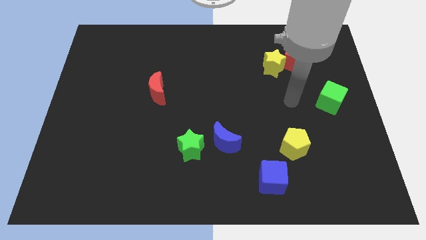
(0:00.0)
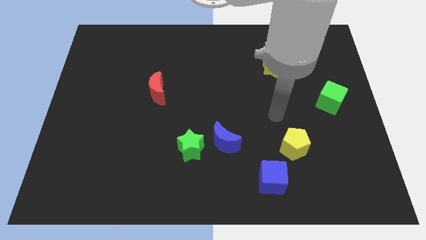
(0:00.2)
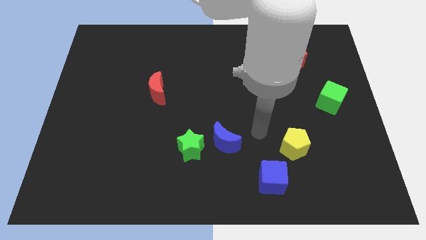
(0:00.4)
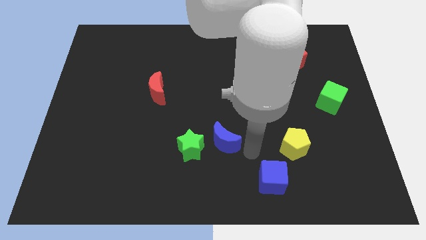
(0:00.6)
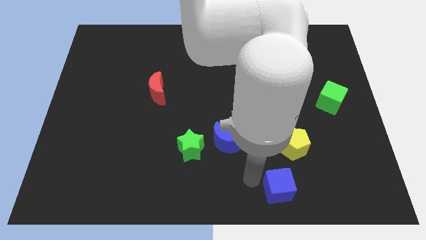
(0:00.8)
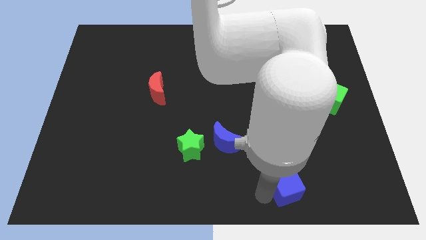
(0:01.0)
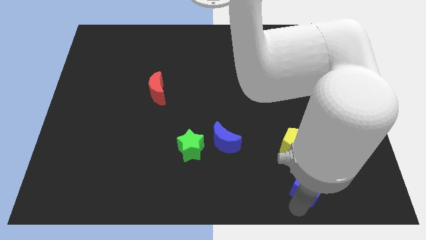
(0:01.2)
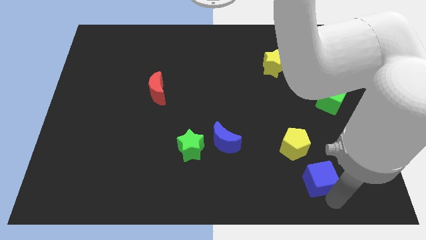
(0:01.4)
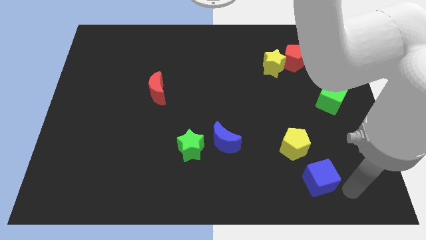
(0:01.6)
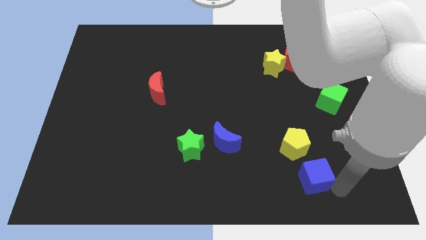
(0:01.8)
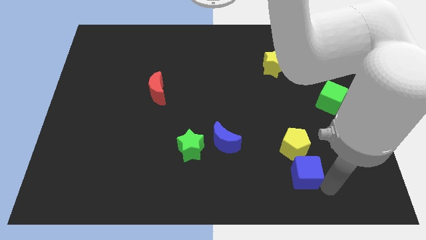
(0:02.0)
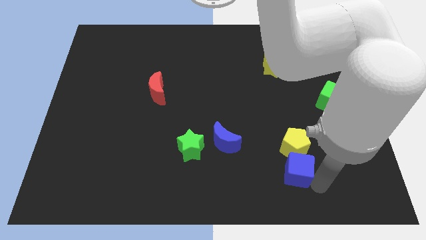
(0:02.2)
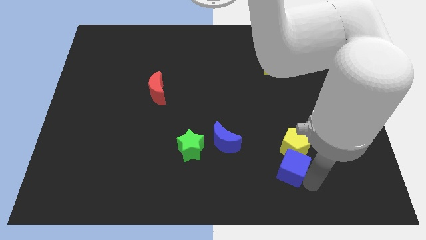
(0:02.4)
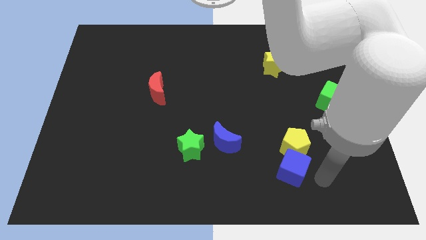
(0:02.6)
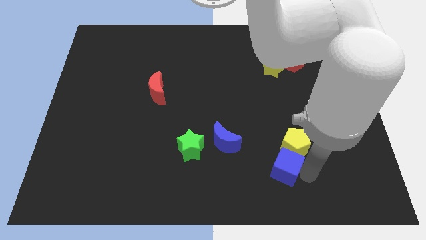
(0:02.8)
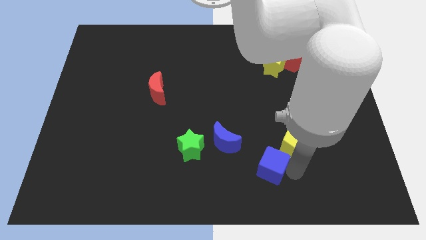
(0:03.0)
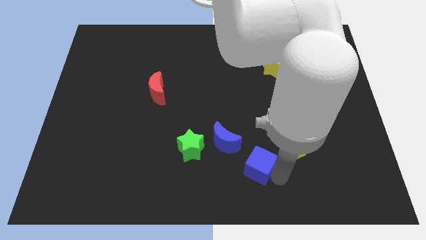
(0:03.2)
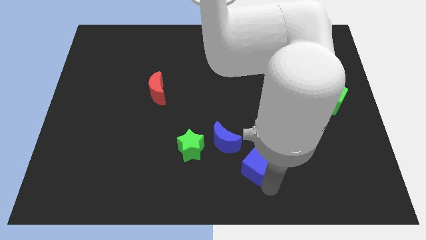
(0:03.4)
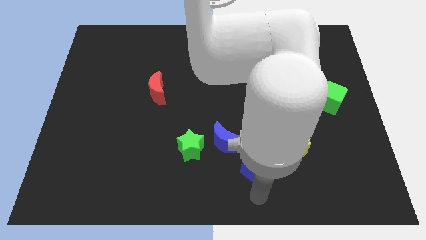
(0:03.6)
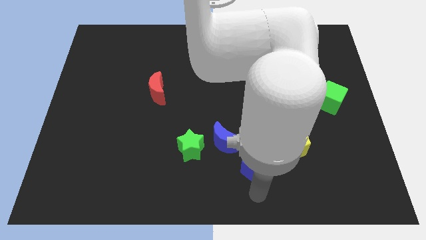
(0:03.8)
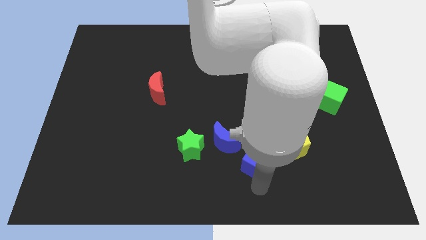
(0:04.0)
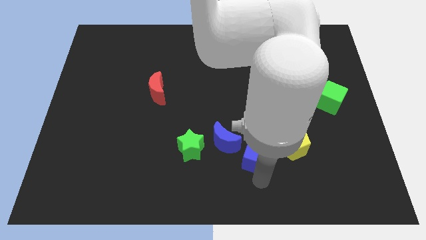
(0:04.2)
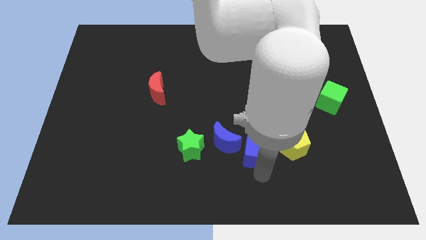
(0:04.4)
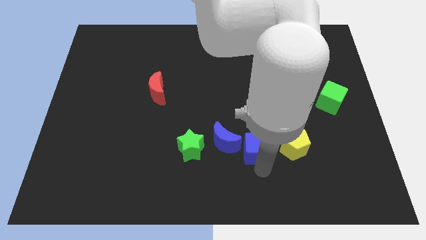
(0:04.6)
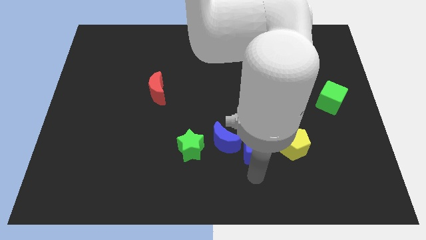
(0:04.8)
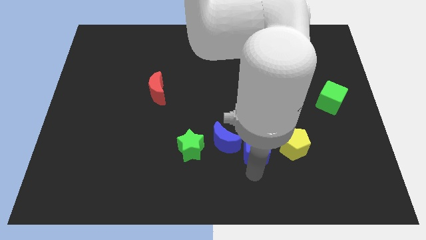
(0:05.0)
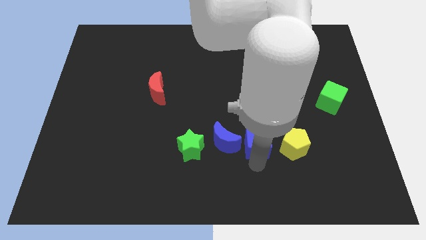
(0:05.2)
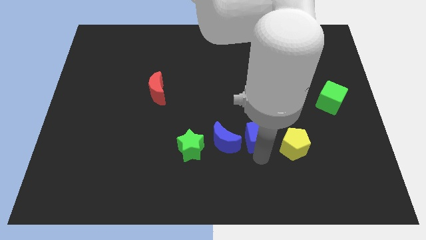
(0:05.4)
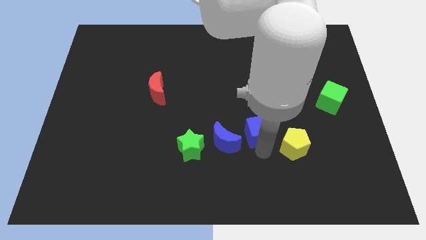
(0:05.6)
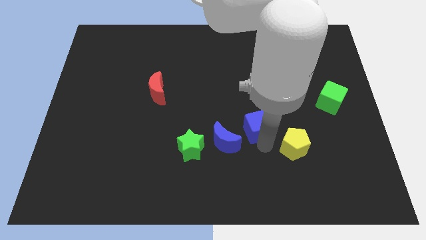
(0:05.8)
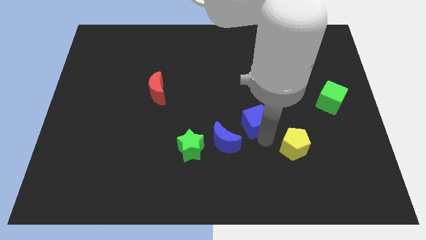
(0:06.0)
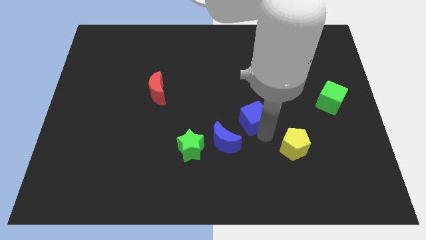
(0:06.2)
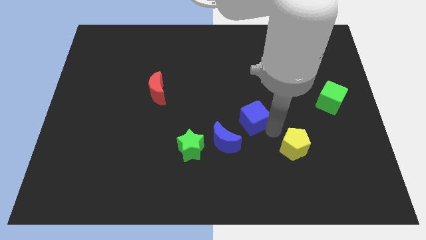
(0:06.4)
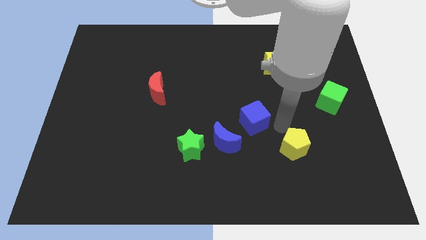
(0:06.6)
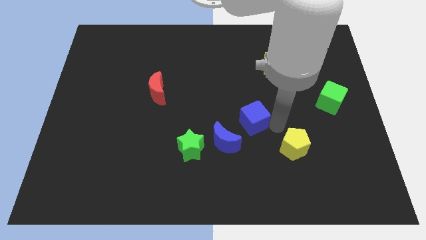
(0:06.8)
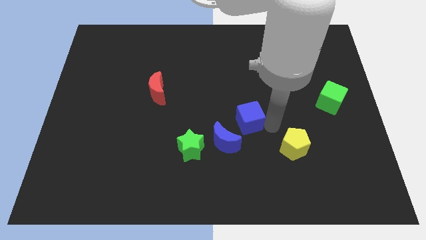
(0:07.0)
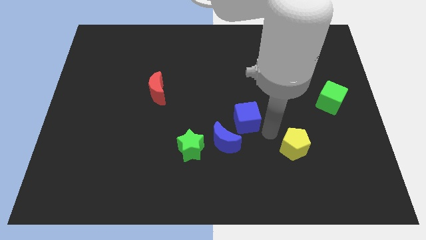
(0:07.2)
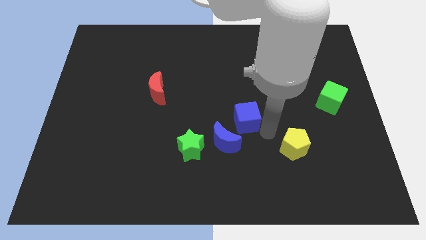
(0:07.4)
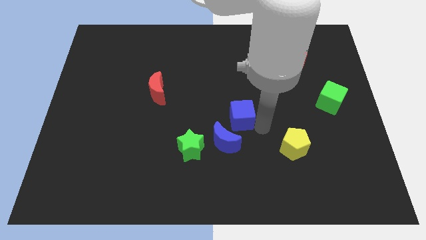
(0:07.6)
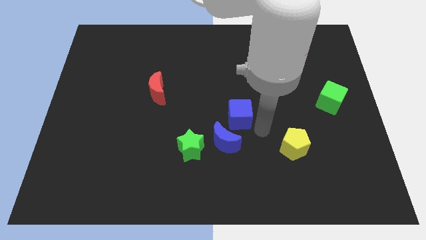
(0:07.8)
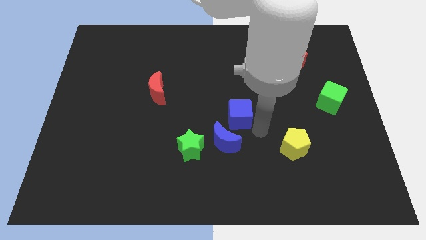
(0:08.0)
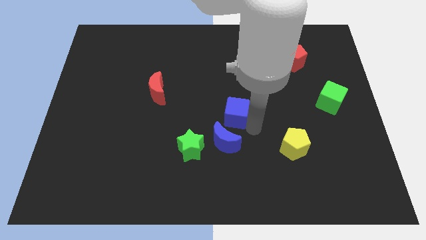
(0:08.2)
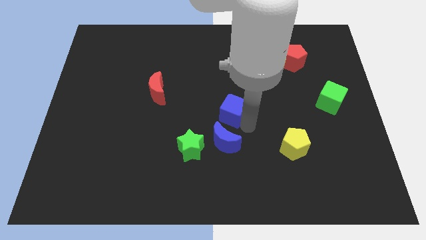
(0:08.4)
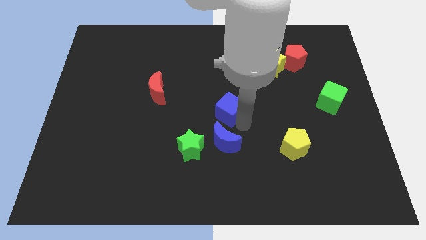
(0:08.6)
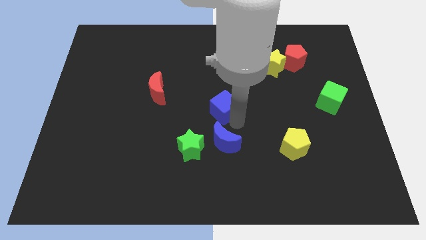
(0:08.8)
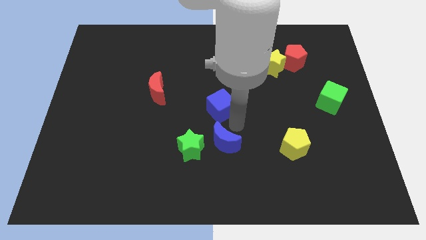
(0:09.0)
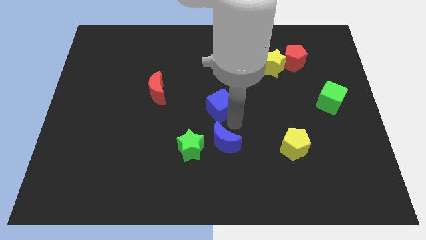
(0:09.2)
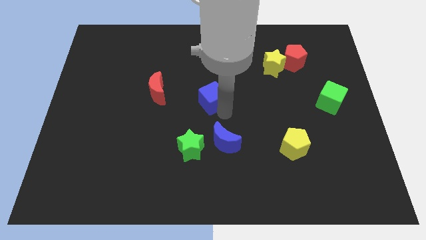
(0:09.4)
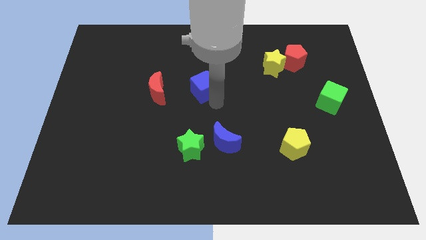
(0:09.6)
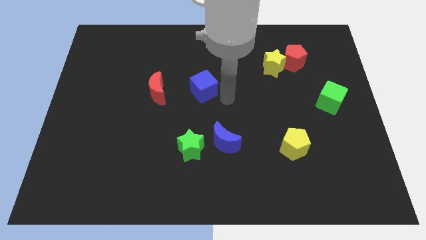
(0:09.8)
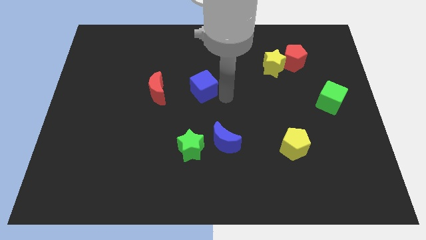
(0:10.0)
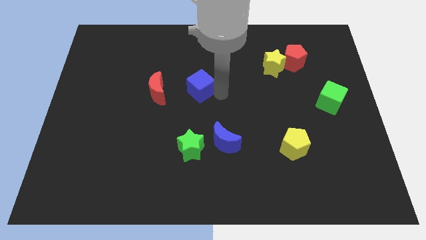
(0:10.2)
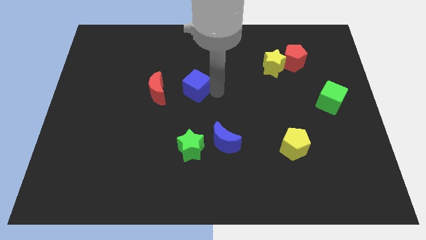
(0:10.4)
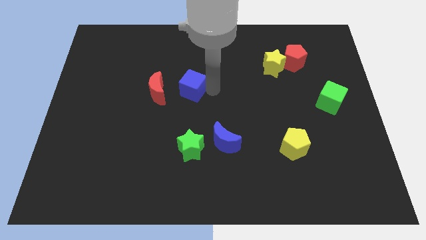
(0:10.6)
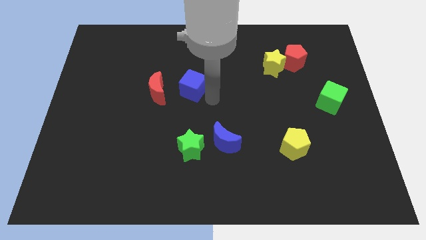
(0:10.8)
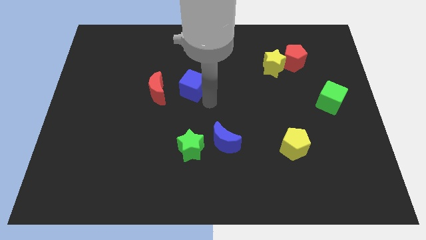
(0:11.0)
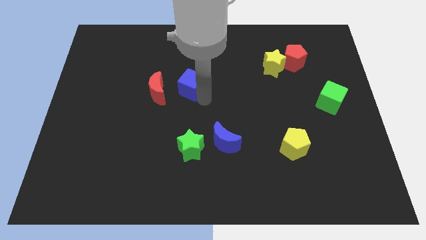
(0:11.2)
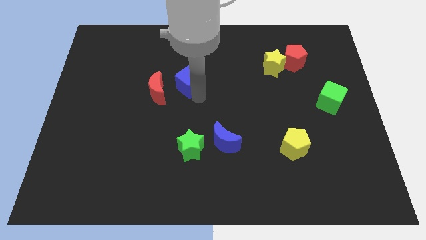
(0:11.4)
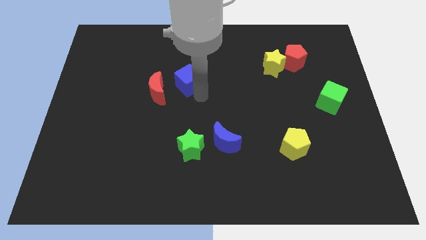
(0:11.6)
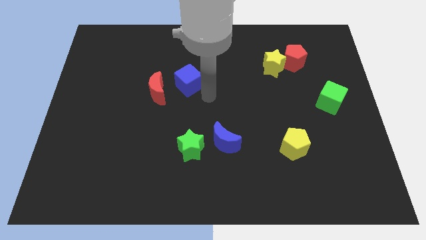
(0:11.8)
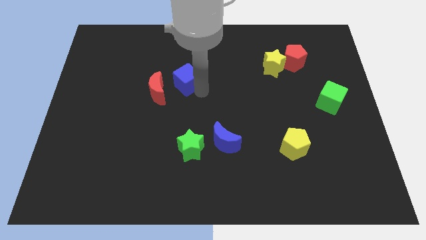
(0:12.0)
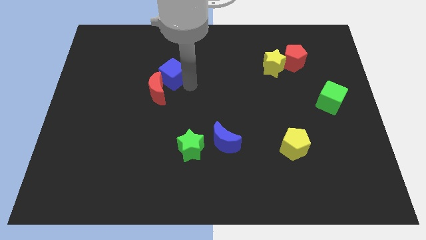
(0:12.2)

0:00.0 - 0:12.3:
put the blue cube above the red moon

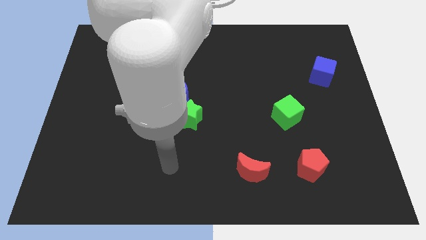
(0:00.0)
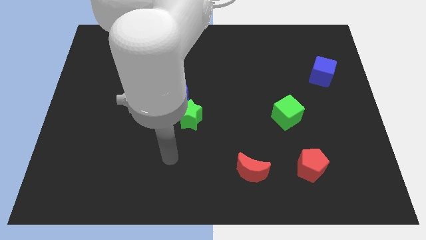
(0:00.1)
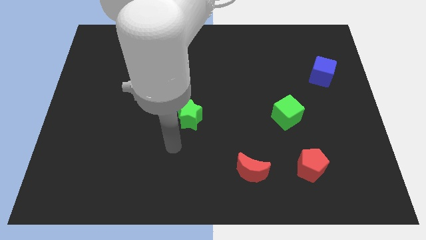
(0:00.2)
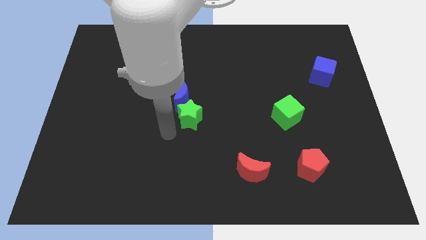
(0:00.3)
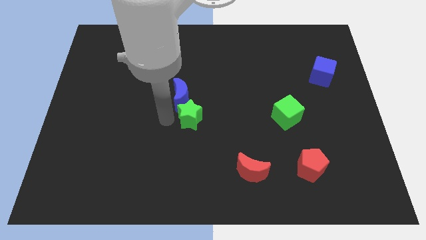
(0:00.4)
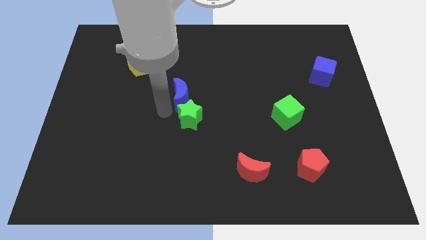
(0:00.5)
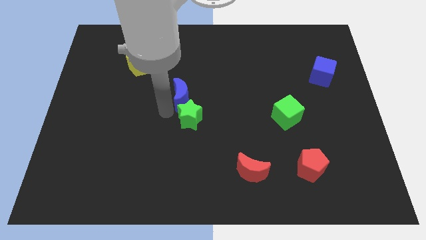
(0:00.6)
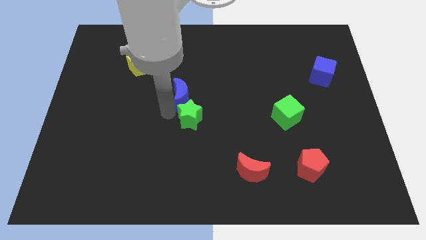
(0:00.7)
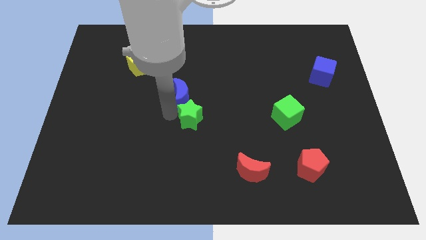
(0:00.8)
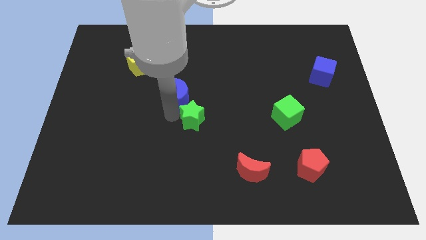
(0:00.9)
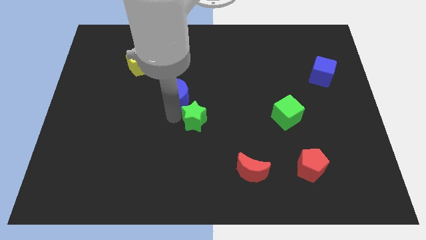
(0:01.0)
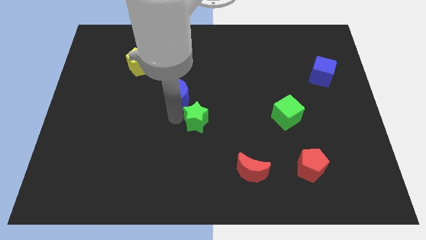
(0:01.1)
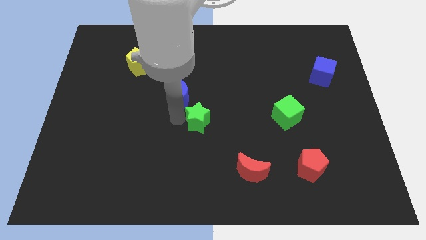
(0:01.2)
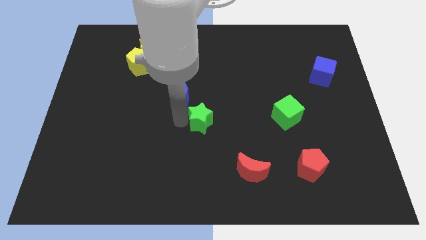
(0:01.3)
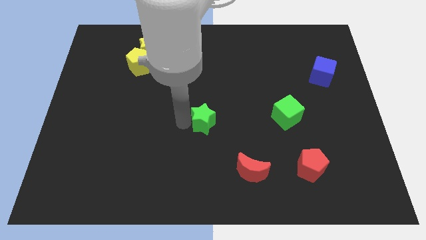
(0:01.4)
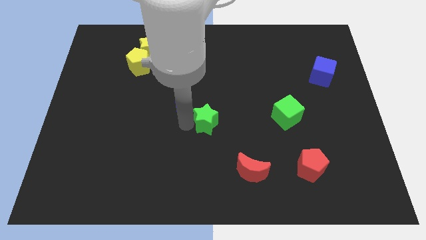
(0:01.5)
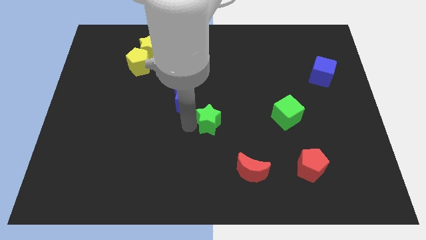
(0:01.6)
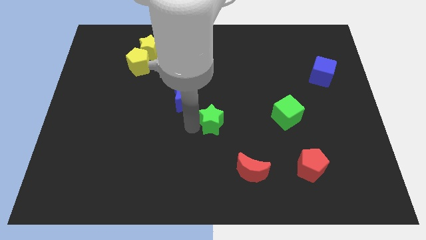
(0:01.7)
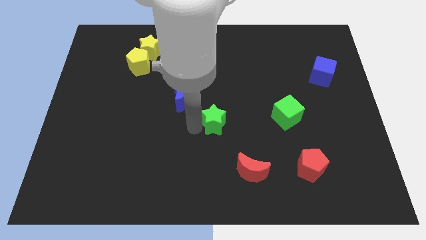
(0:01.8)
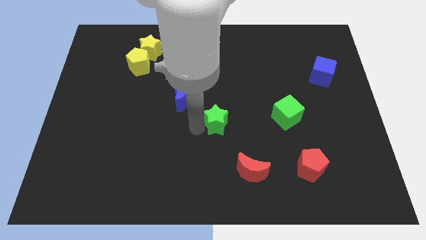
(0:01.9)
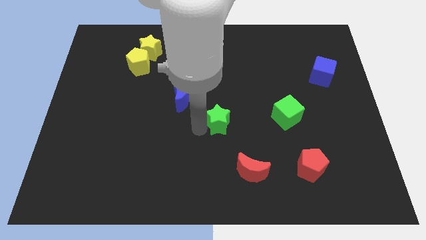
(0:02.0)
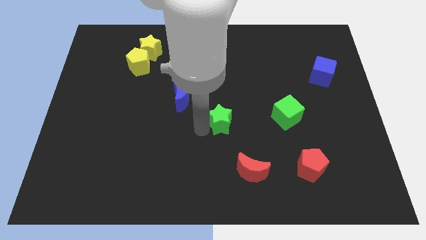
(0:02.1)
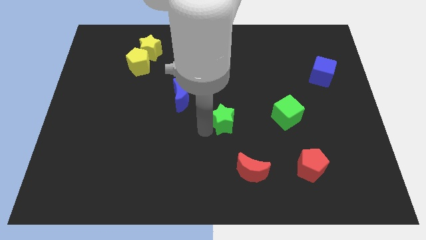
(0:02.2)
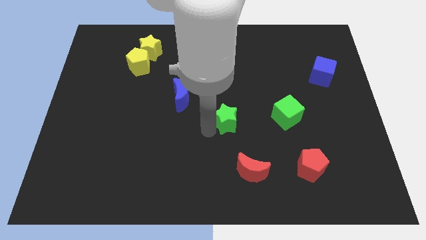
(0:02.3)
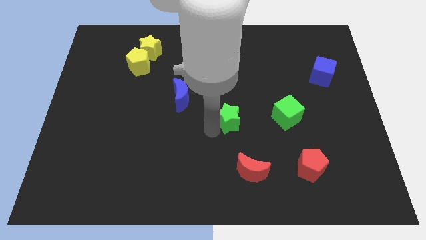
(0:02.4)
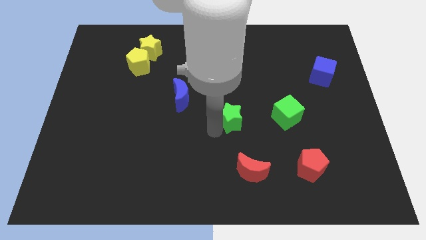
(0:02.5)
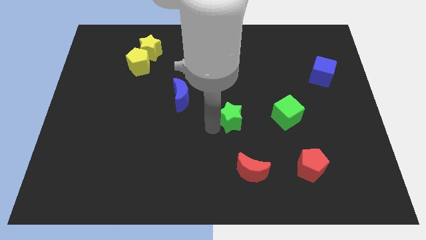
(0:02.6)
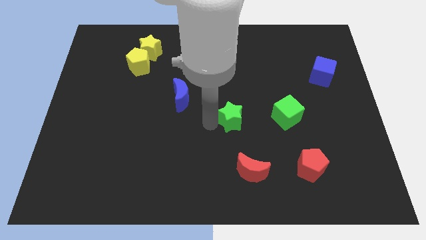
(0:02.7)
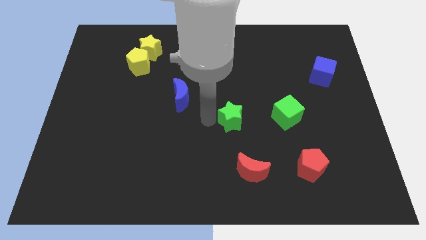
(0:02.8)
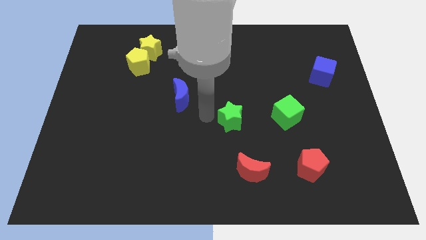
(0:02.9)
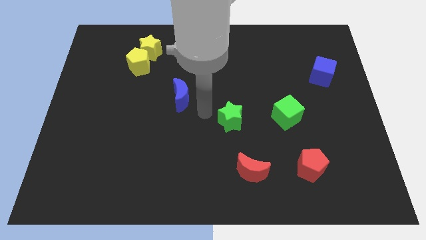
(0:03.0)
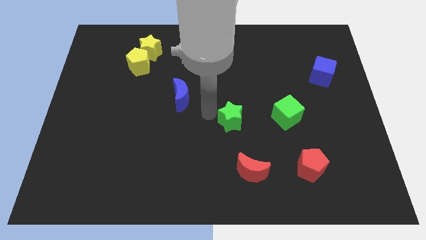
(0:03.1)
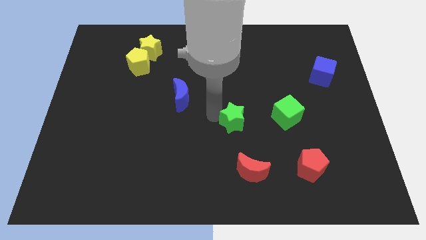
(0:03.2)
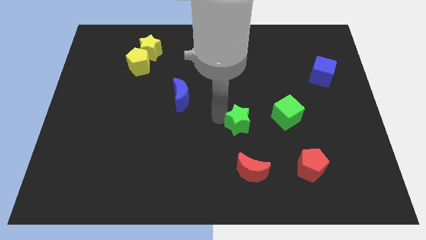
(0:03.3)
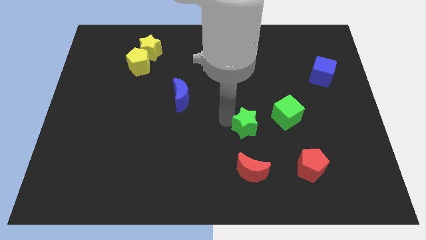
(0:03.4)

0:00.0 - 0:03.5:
put the green star to the bottom left of the green cube
